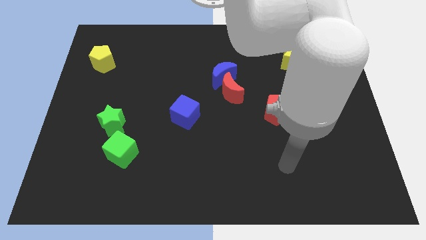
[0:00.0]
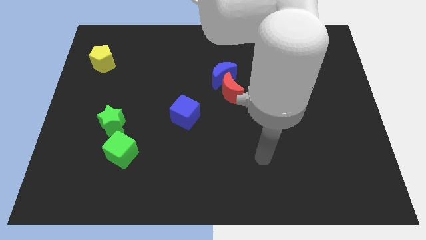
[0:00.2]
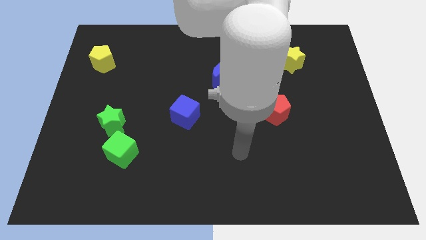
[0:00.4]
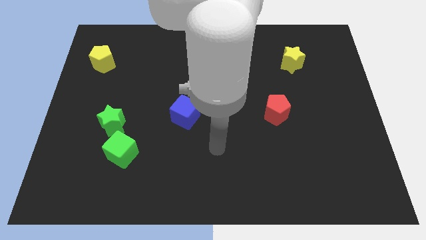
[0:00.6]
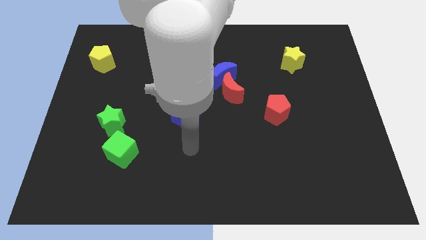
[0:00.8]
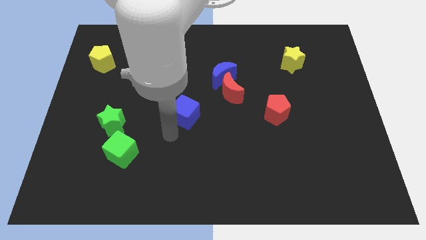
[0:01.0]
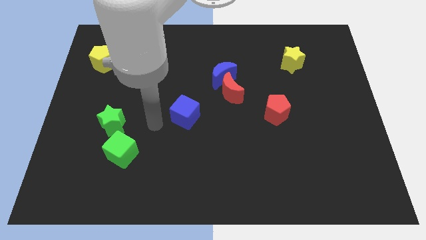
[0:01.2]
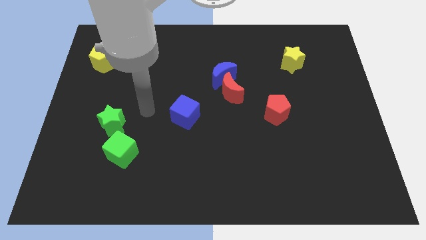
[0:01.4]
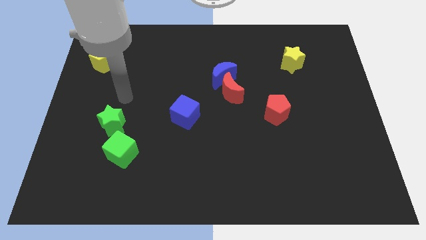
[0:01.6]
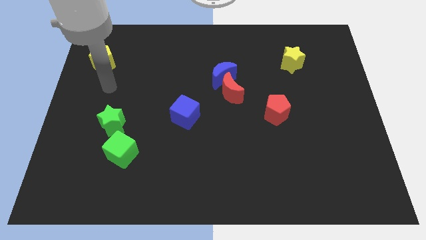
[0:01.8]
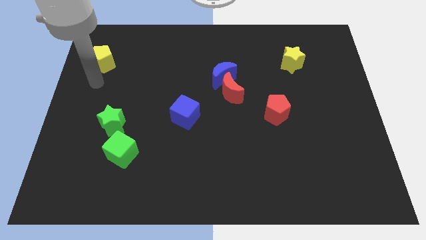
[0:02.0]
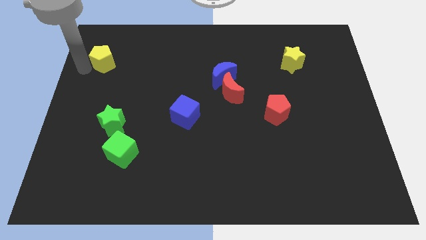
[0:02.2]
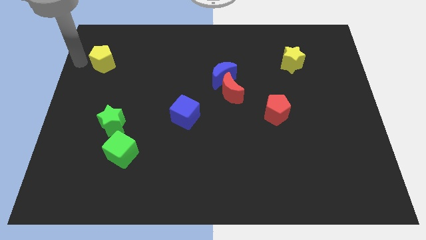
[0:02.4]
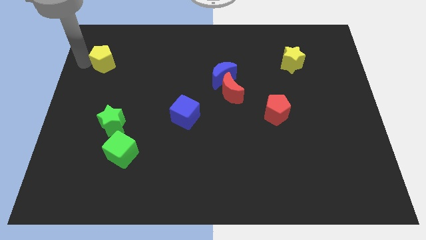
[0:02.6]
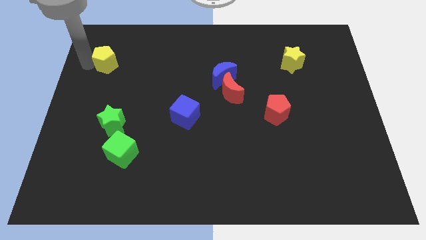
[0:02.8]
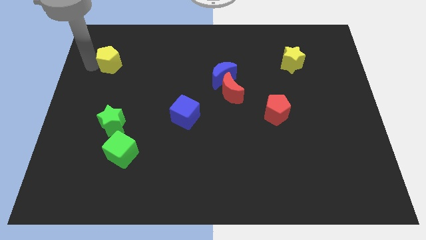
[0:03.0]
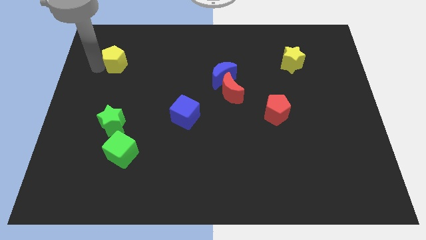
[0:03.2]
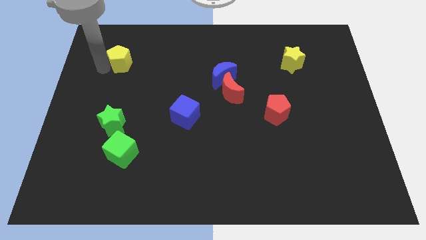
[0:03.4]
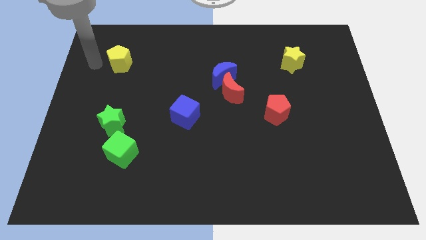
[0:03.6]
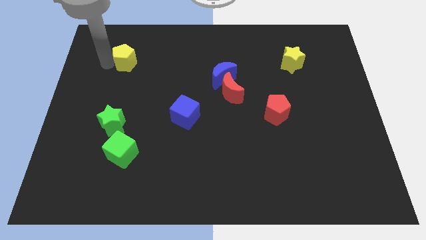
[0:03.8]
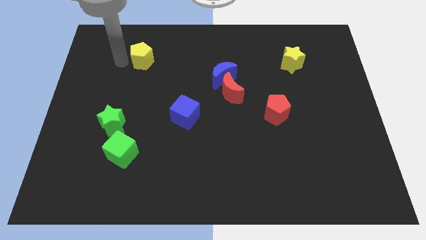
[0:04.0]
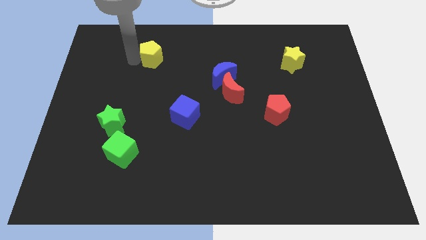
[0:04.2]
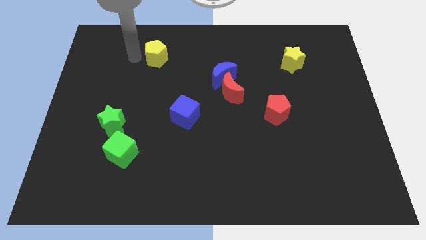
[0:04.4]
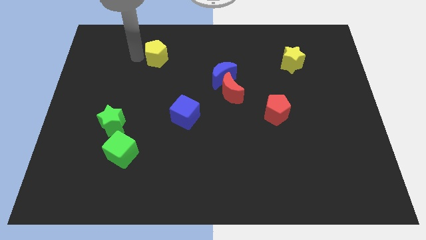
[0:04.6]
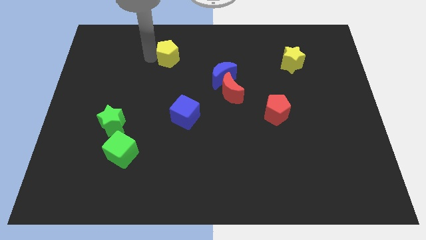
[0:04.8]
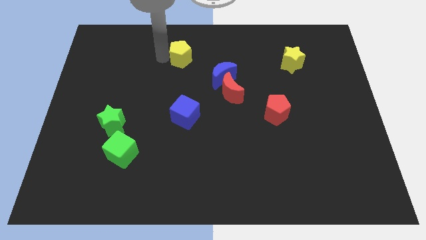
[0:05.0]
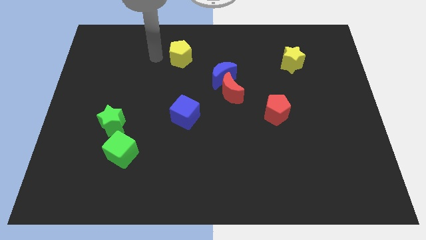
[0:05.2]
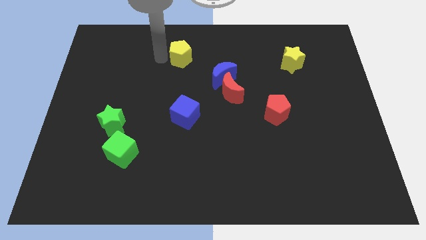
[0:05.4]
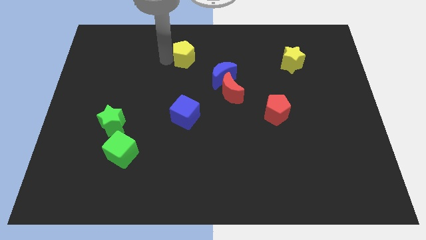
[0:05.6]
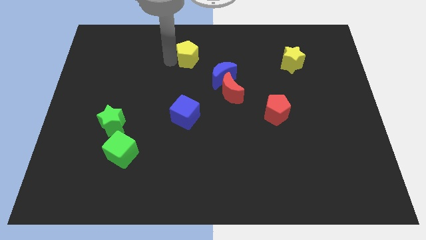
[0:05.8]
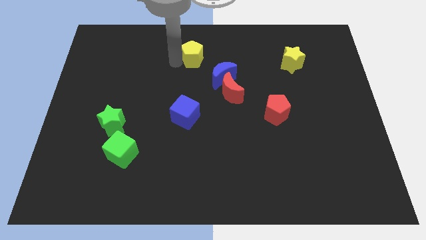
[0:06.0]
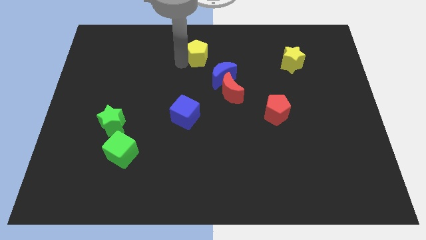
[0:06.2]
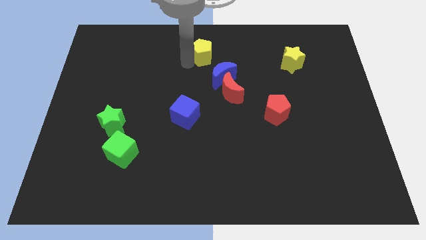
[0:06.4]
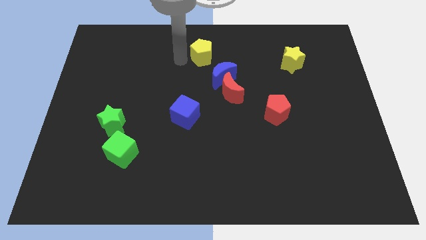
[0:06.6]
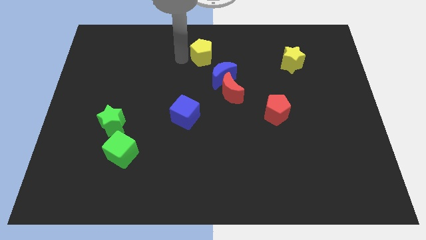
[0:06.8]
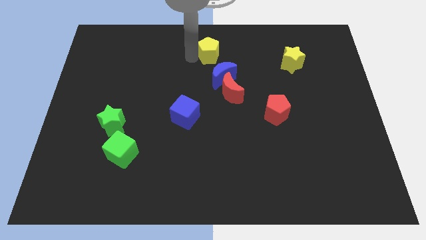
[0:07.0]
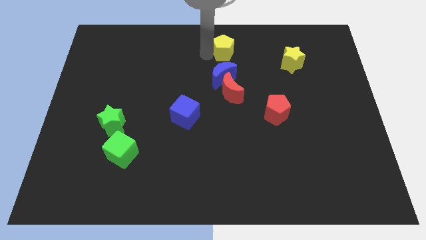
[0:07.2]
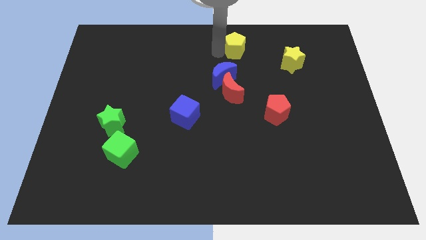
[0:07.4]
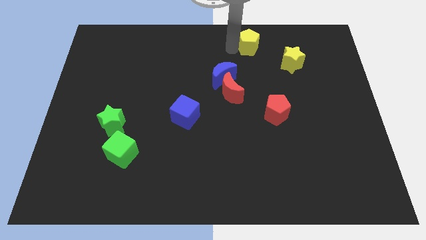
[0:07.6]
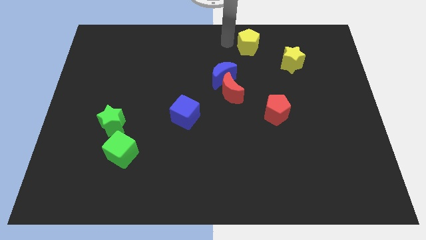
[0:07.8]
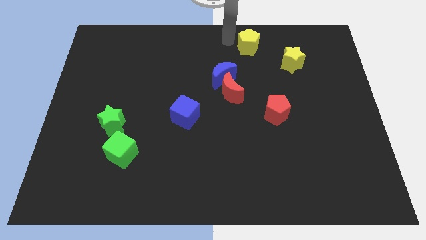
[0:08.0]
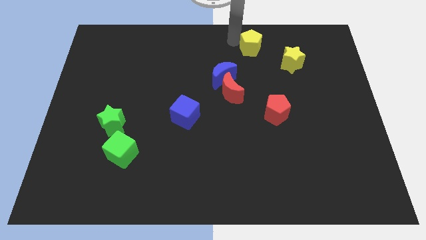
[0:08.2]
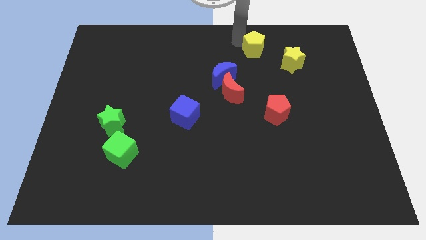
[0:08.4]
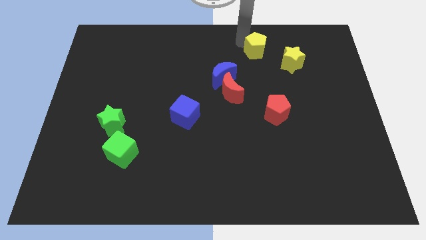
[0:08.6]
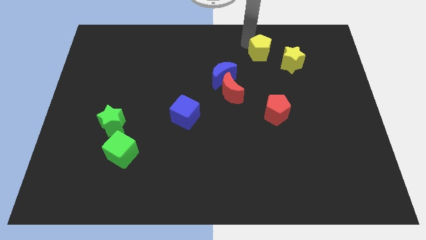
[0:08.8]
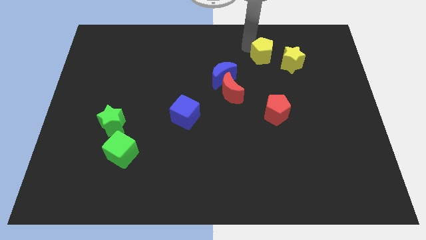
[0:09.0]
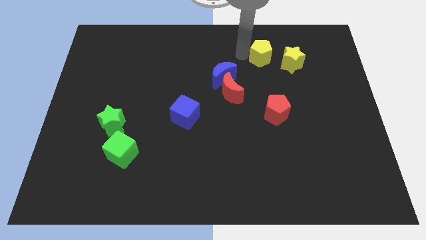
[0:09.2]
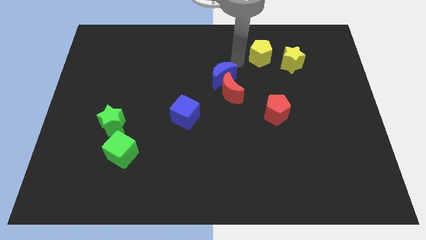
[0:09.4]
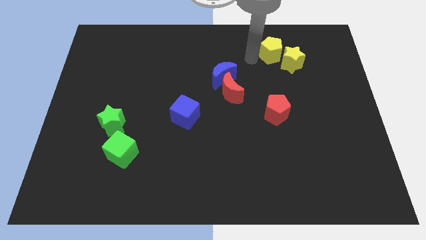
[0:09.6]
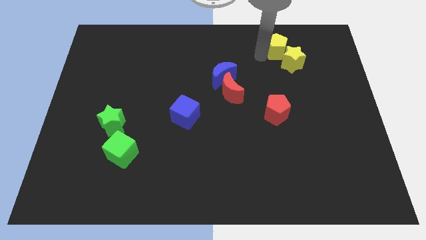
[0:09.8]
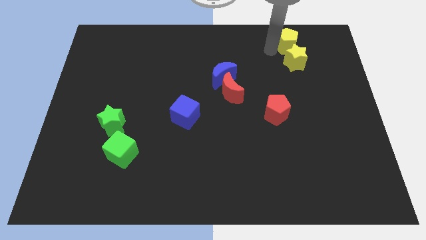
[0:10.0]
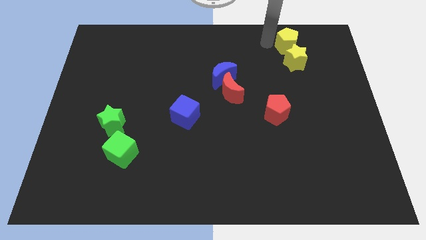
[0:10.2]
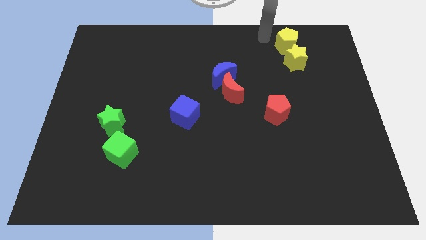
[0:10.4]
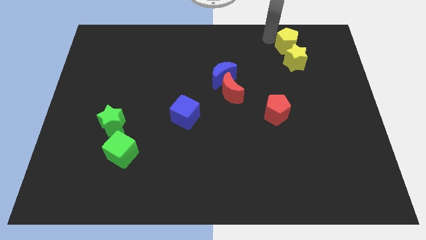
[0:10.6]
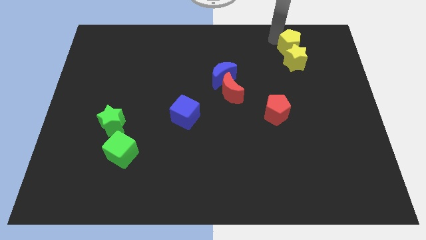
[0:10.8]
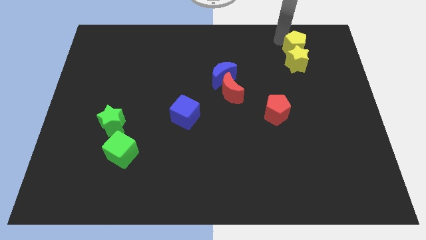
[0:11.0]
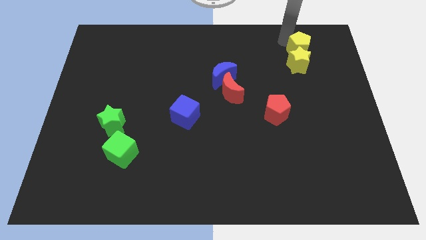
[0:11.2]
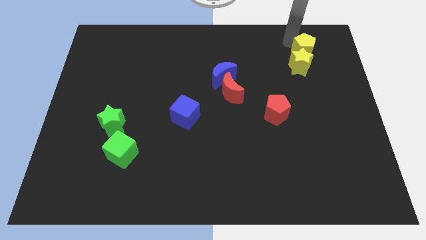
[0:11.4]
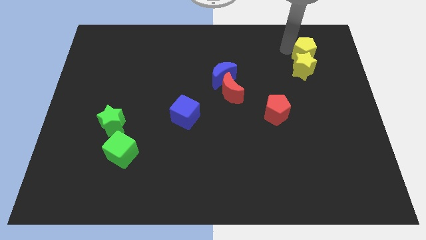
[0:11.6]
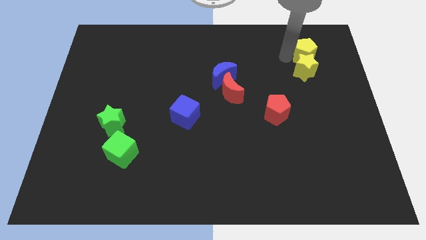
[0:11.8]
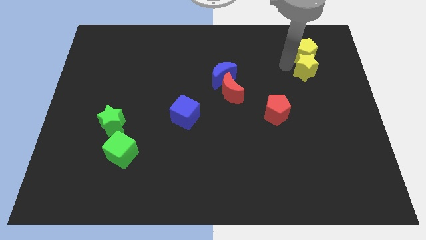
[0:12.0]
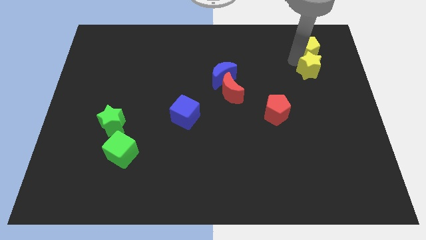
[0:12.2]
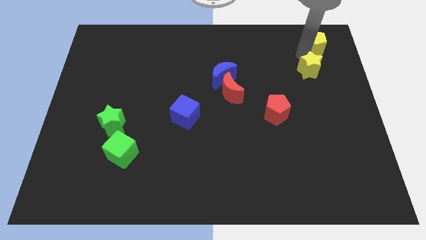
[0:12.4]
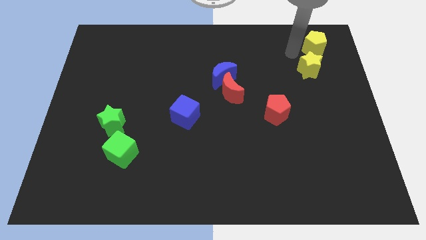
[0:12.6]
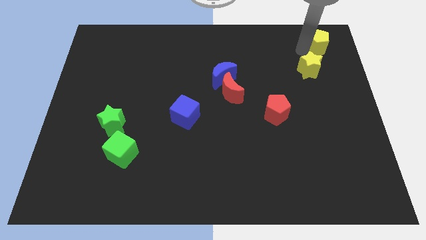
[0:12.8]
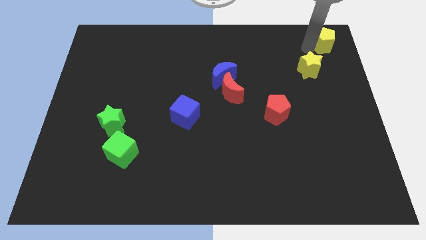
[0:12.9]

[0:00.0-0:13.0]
slide the yellow pentagon to the top right corner
